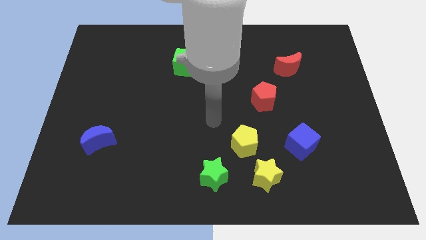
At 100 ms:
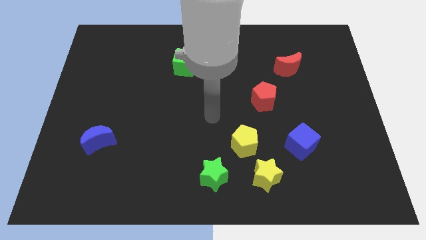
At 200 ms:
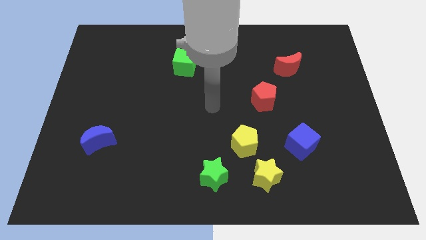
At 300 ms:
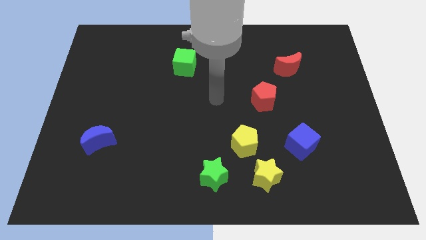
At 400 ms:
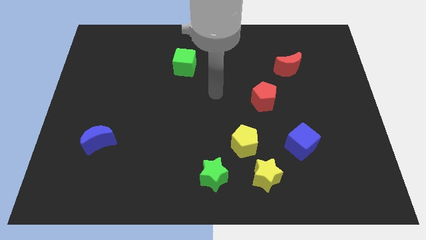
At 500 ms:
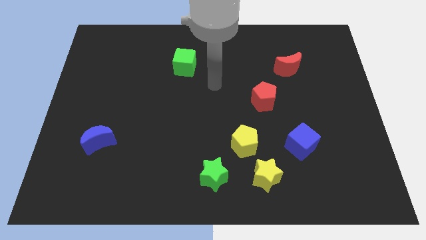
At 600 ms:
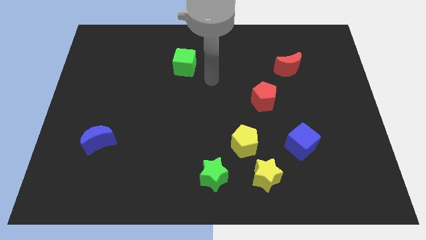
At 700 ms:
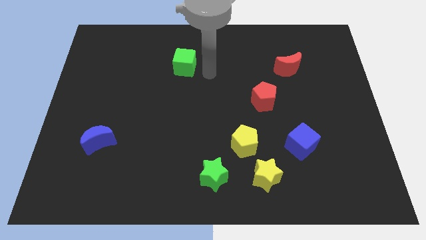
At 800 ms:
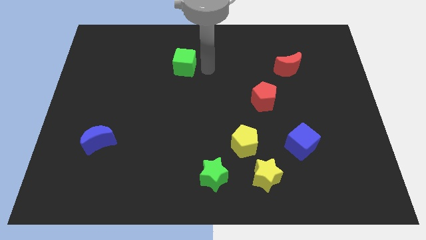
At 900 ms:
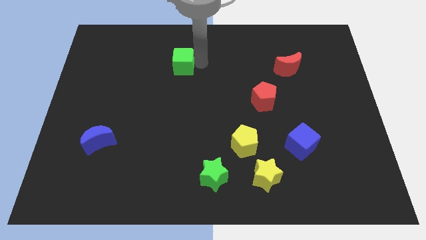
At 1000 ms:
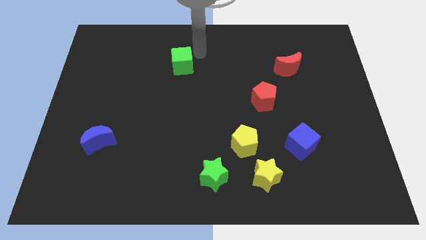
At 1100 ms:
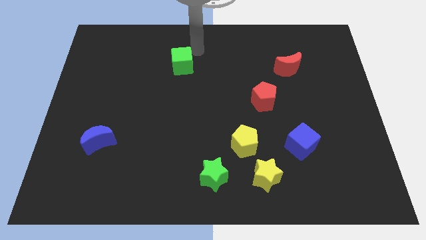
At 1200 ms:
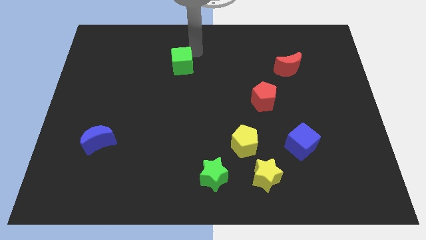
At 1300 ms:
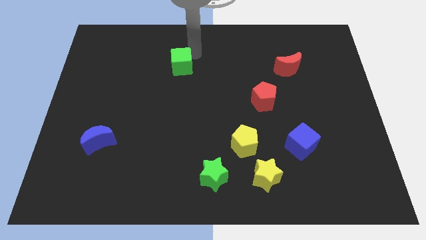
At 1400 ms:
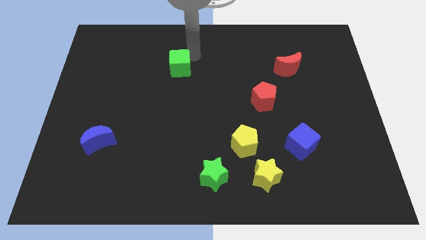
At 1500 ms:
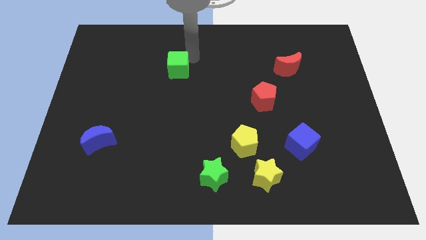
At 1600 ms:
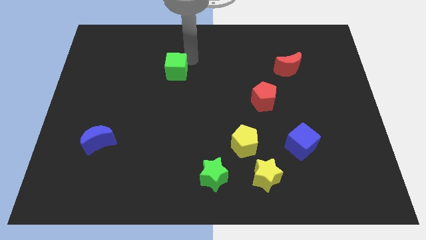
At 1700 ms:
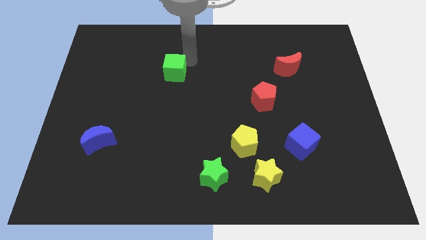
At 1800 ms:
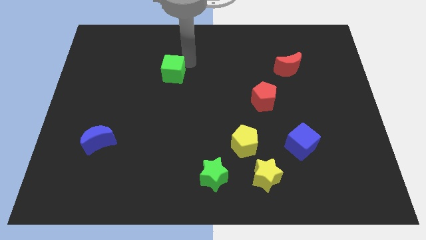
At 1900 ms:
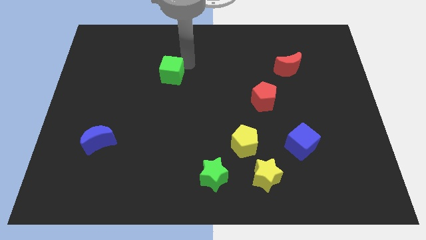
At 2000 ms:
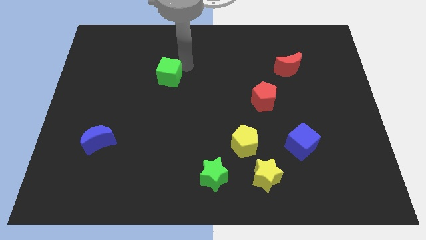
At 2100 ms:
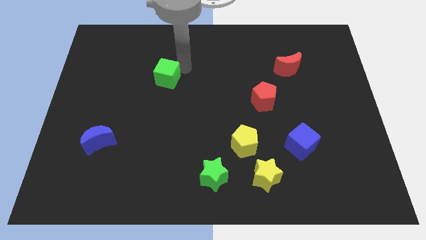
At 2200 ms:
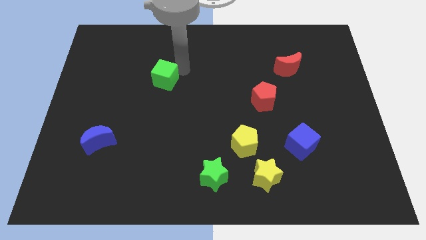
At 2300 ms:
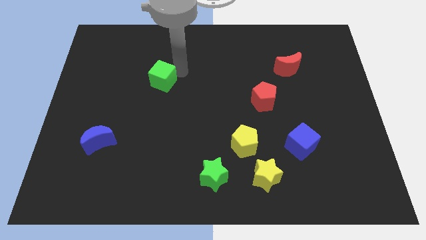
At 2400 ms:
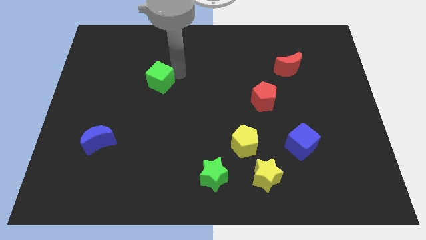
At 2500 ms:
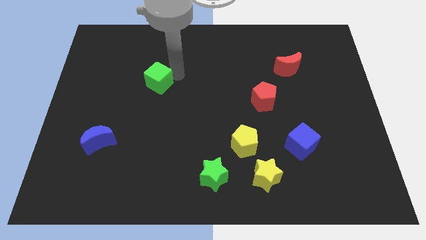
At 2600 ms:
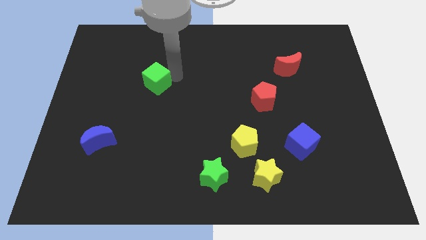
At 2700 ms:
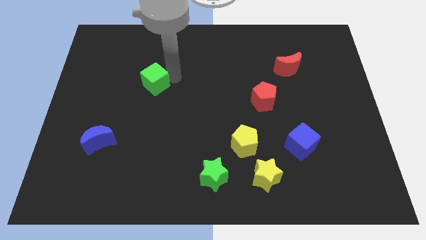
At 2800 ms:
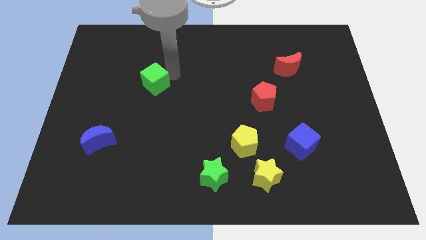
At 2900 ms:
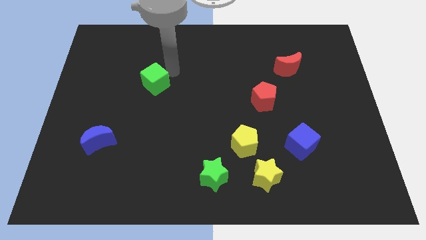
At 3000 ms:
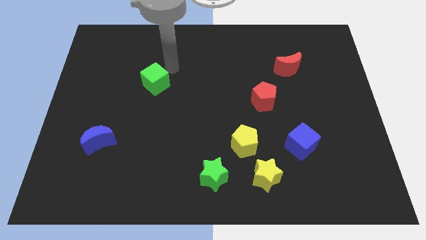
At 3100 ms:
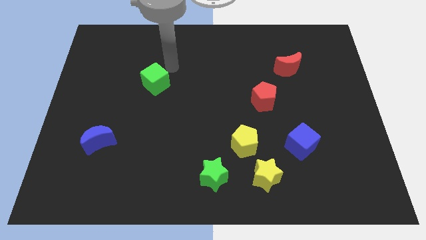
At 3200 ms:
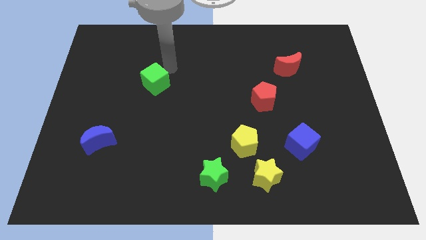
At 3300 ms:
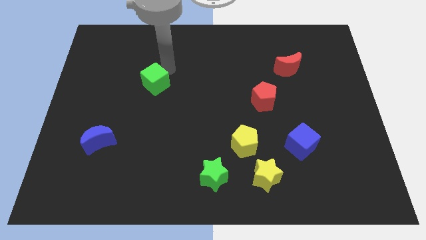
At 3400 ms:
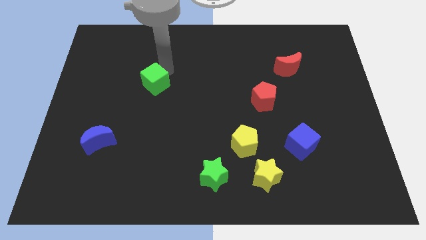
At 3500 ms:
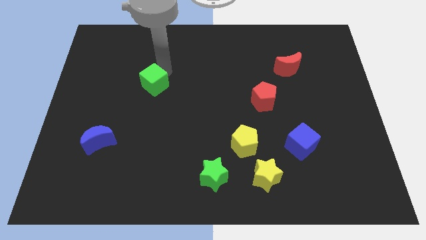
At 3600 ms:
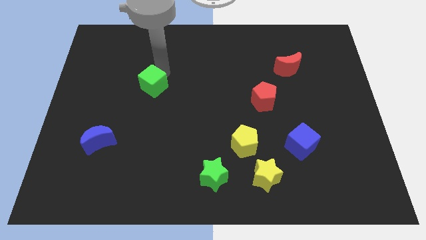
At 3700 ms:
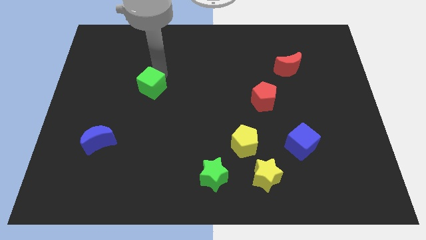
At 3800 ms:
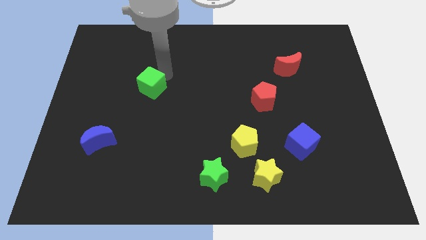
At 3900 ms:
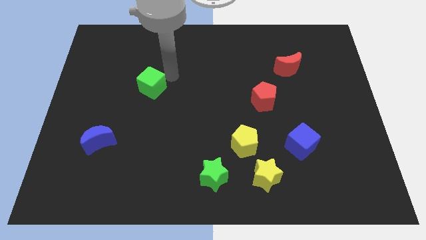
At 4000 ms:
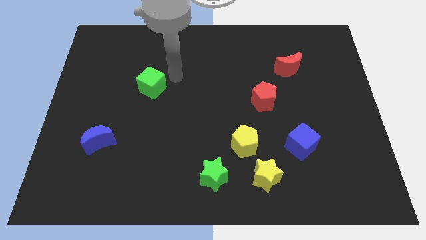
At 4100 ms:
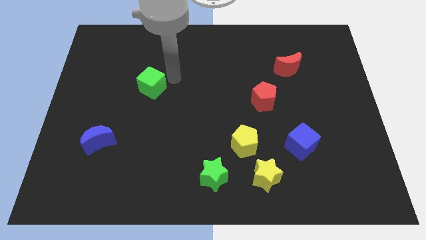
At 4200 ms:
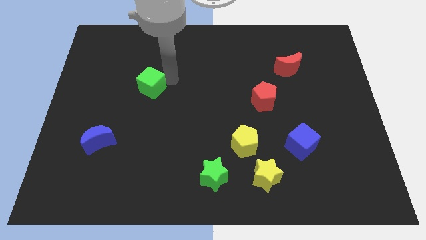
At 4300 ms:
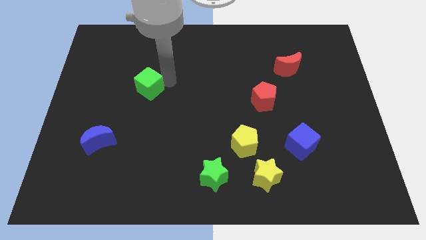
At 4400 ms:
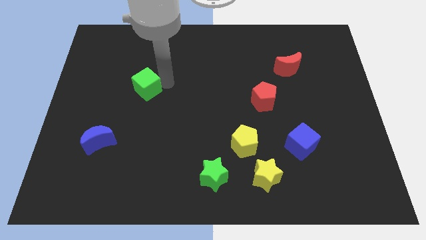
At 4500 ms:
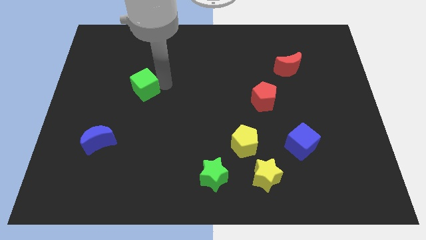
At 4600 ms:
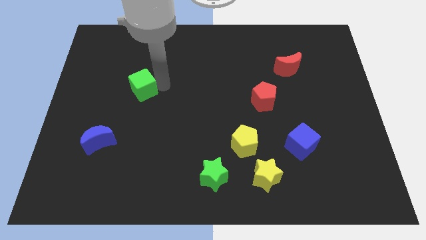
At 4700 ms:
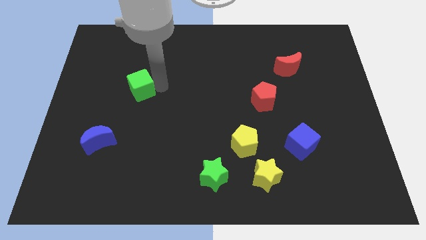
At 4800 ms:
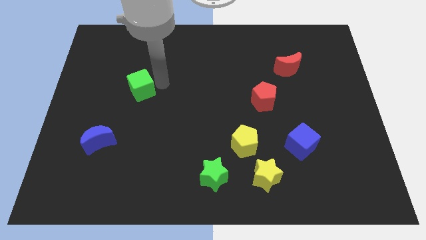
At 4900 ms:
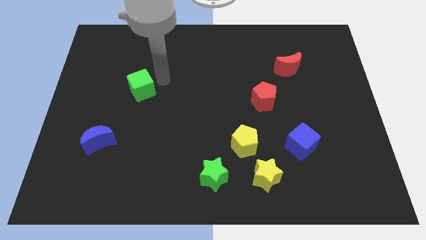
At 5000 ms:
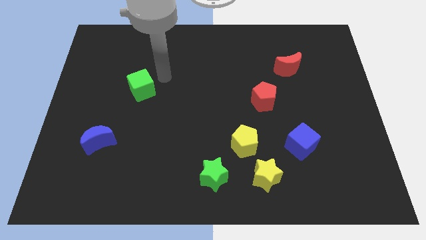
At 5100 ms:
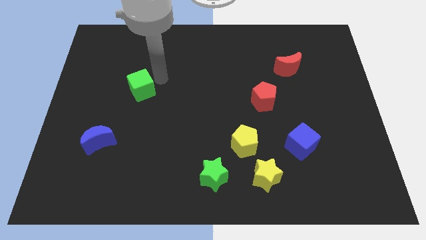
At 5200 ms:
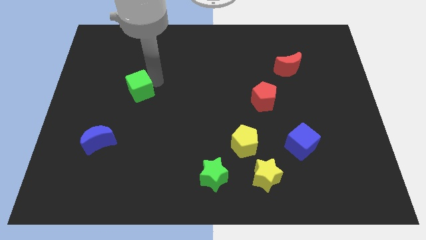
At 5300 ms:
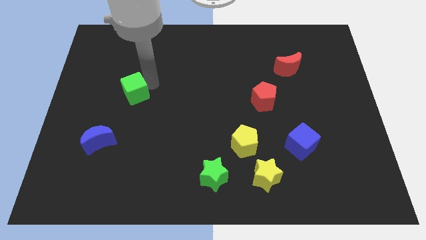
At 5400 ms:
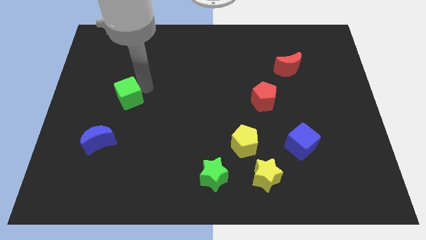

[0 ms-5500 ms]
push the green cube above the blue moon

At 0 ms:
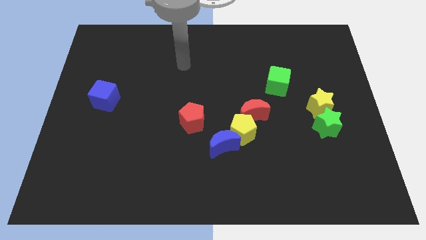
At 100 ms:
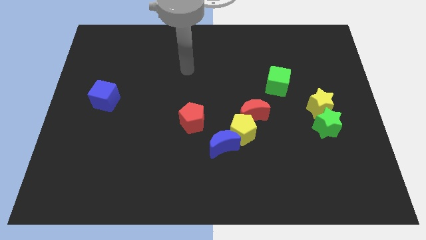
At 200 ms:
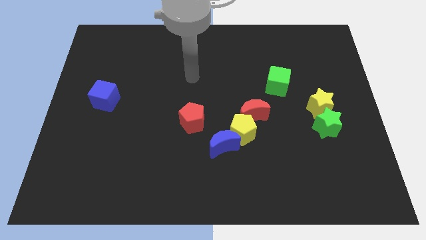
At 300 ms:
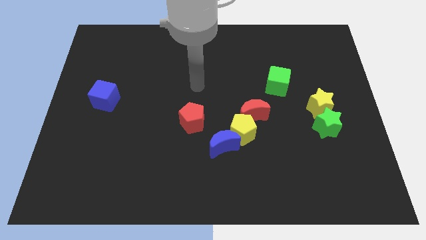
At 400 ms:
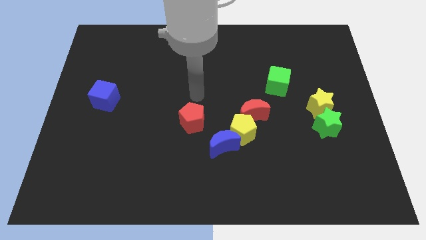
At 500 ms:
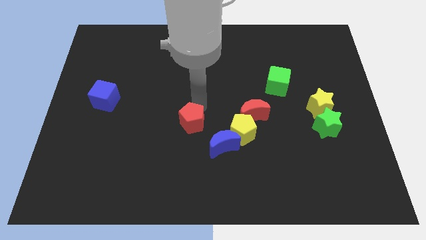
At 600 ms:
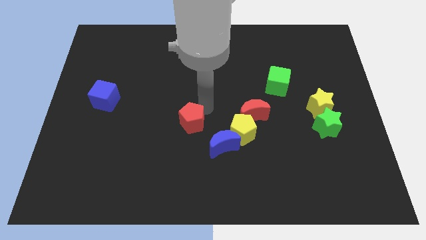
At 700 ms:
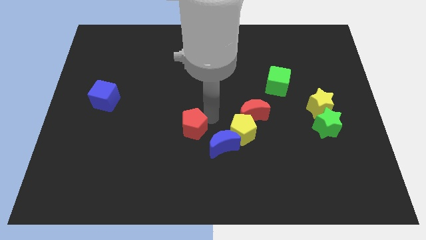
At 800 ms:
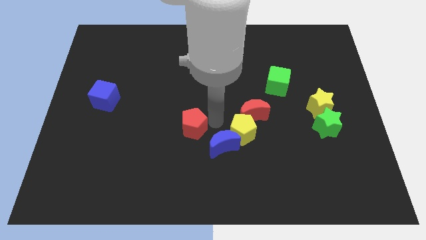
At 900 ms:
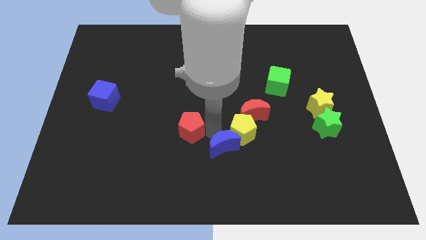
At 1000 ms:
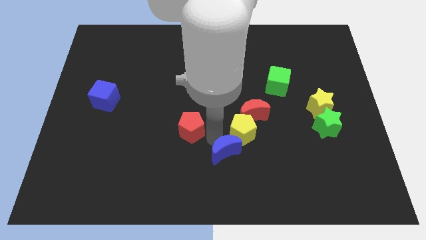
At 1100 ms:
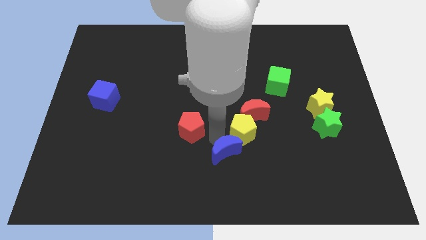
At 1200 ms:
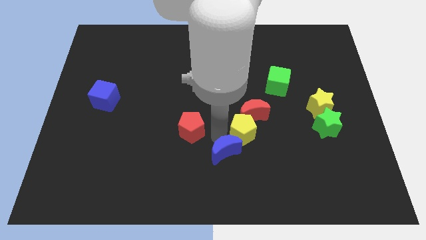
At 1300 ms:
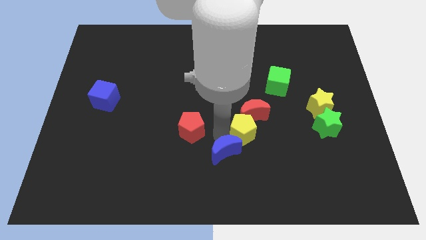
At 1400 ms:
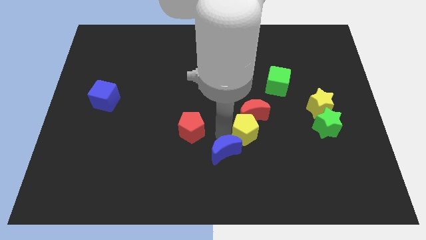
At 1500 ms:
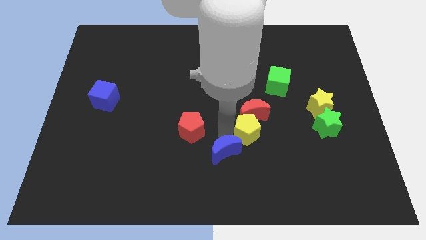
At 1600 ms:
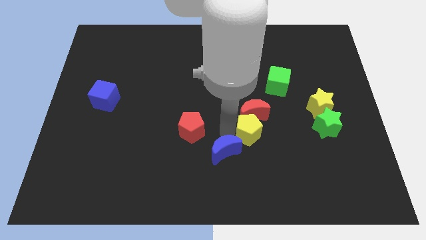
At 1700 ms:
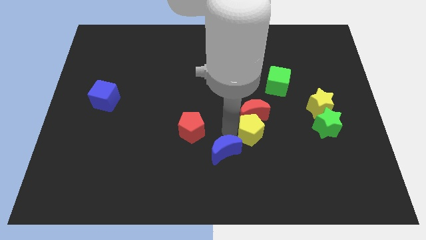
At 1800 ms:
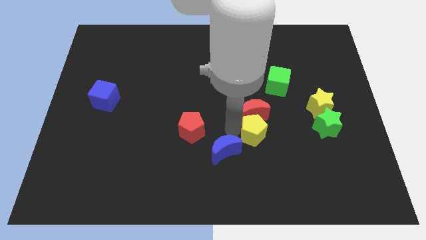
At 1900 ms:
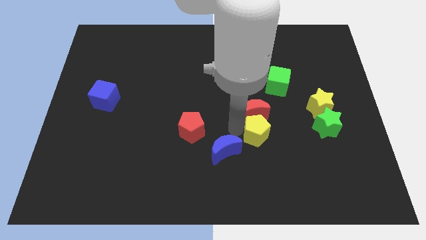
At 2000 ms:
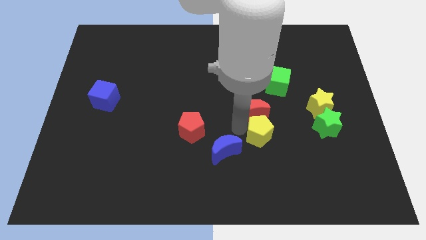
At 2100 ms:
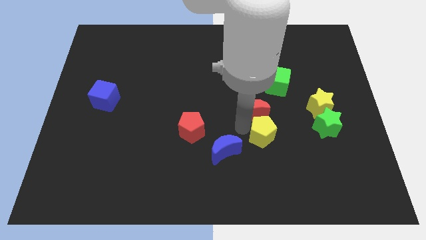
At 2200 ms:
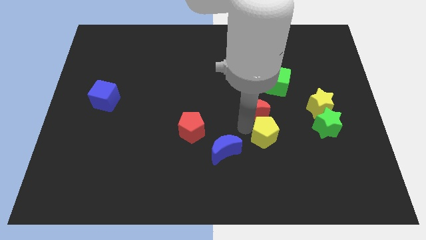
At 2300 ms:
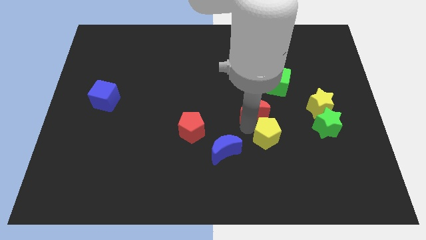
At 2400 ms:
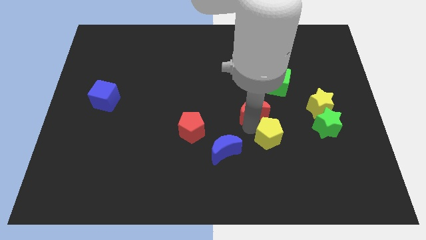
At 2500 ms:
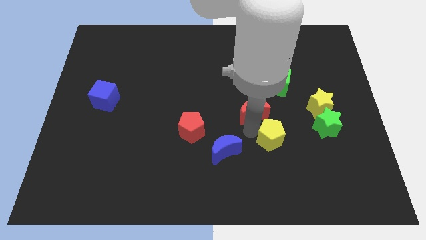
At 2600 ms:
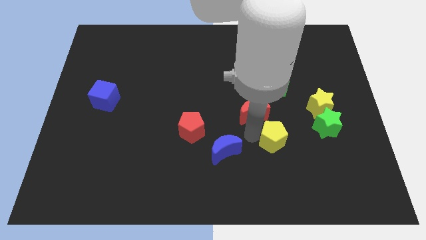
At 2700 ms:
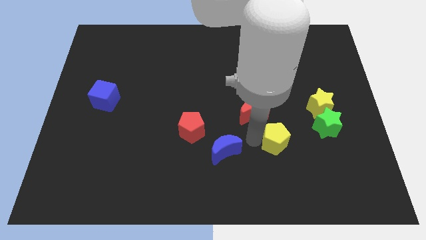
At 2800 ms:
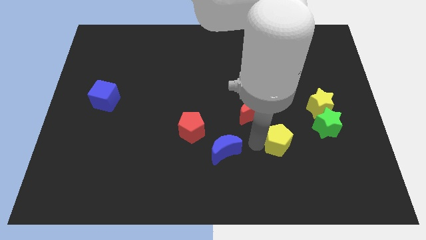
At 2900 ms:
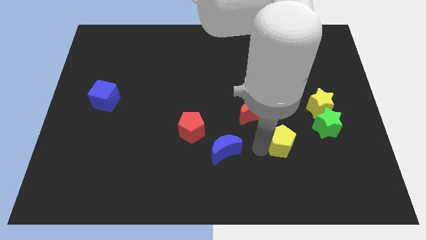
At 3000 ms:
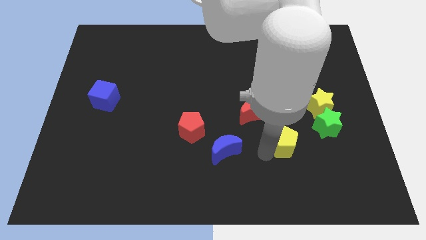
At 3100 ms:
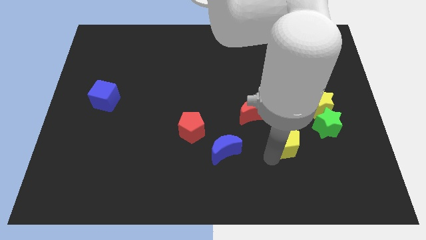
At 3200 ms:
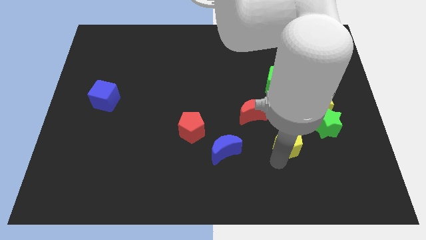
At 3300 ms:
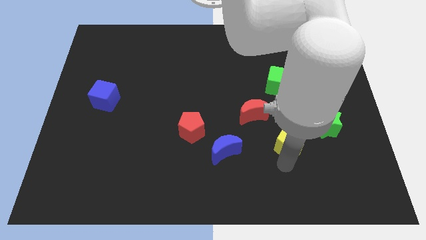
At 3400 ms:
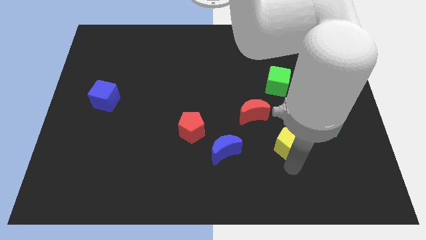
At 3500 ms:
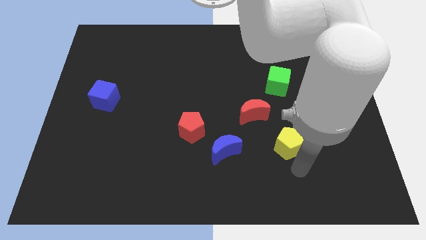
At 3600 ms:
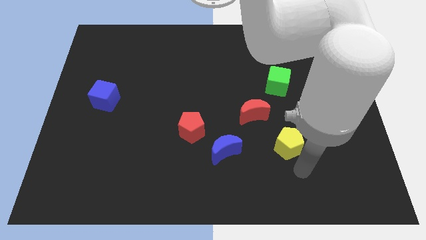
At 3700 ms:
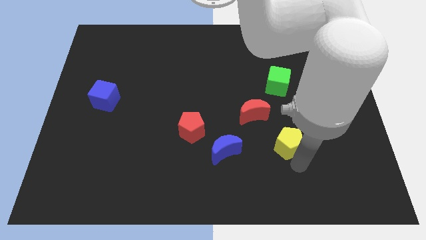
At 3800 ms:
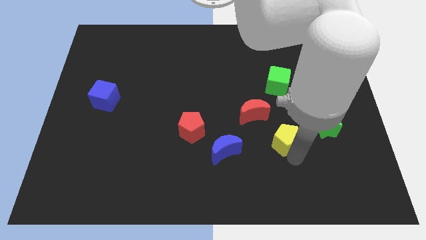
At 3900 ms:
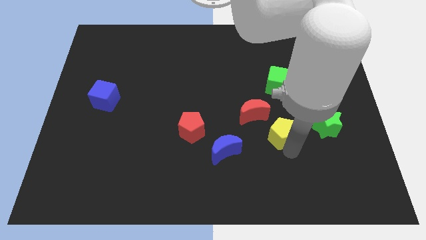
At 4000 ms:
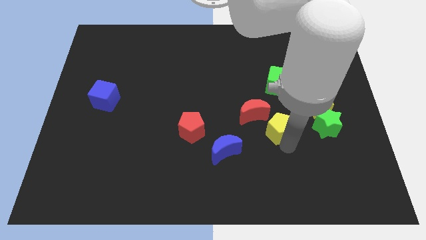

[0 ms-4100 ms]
move the yellow pentagon to the right of the red moon
